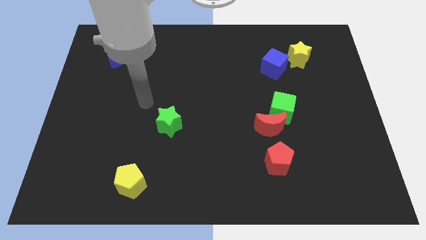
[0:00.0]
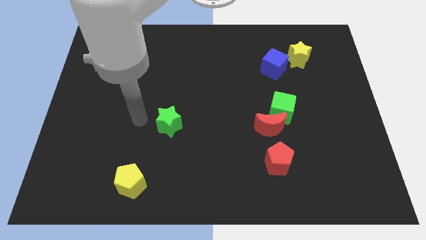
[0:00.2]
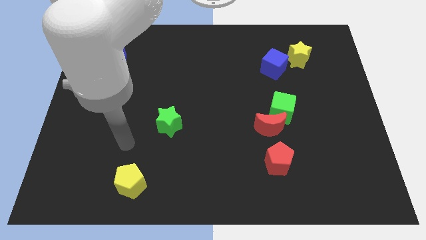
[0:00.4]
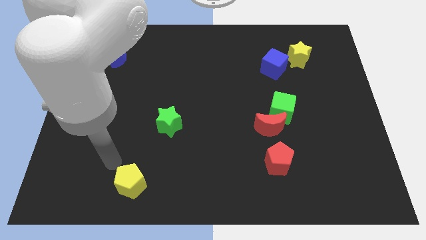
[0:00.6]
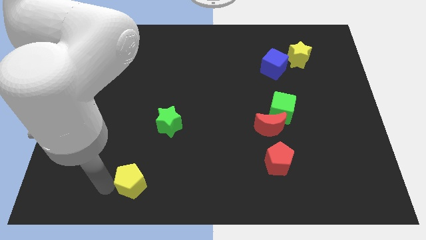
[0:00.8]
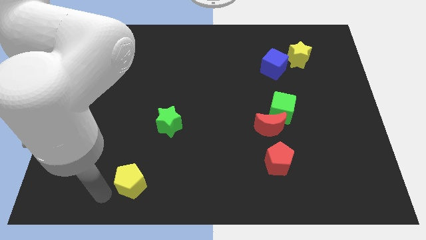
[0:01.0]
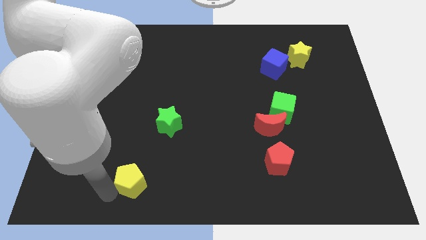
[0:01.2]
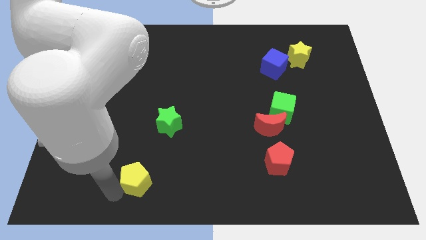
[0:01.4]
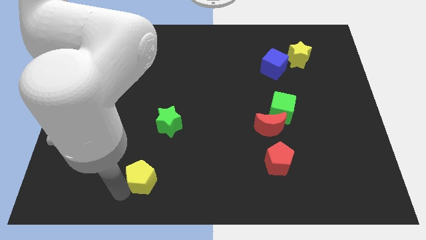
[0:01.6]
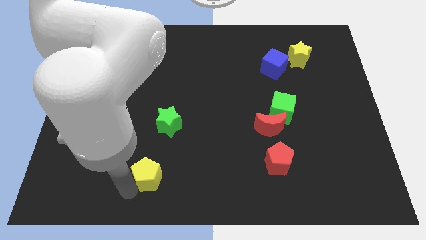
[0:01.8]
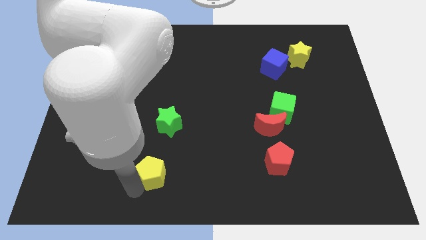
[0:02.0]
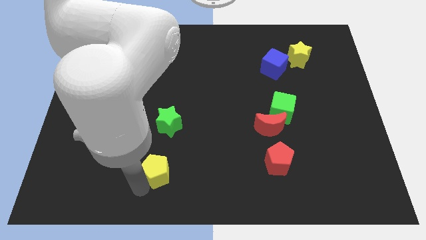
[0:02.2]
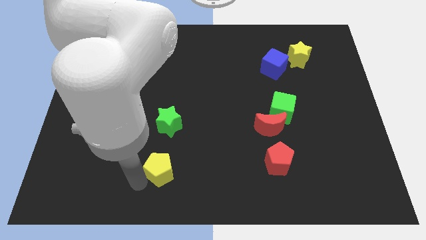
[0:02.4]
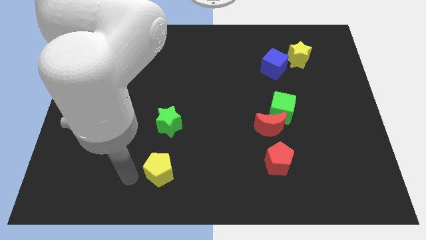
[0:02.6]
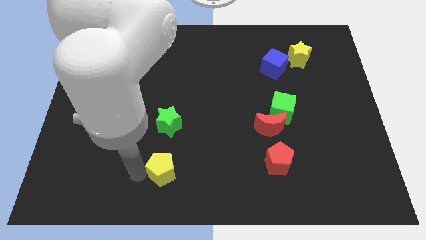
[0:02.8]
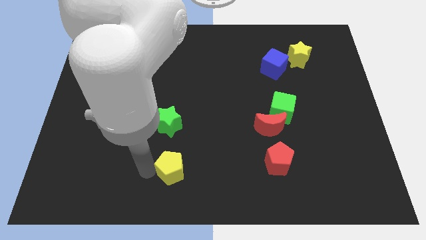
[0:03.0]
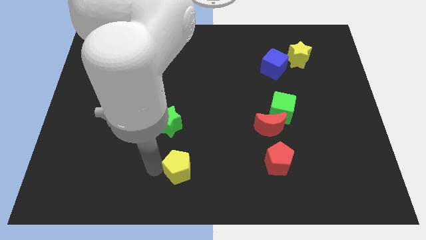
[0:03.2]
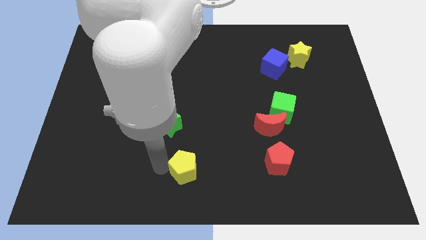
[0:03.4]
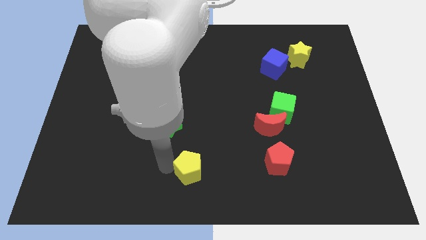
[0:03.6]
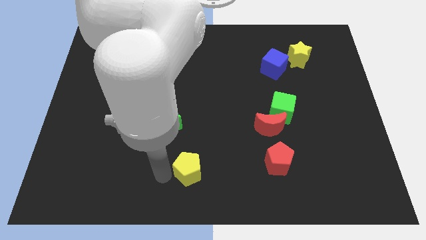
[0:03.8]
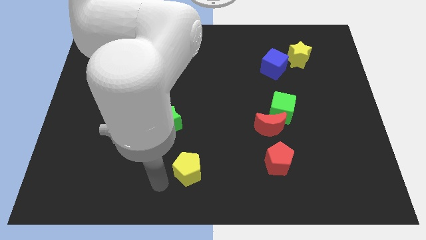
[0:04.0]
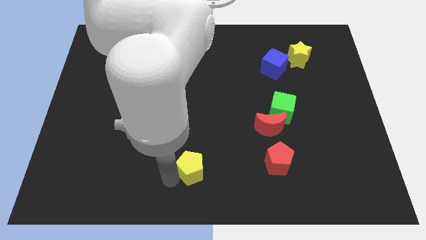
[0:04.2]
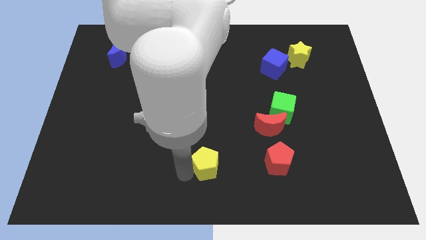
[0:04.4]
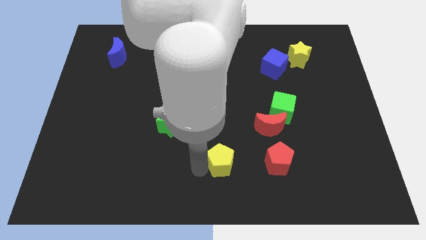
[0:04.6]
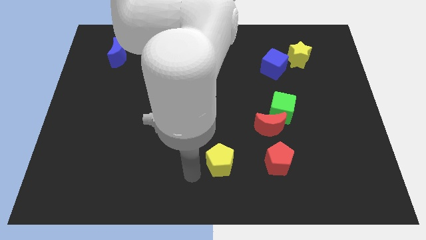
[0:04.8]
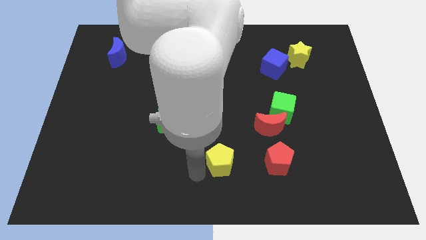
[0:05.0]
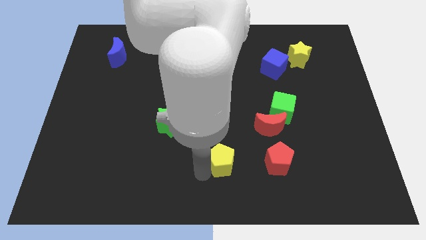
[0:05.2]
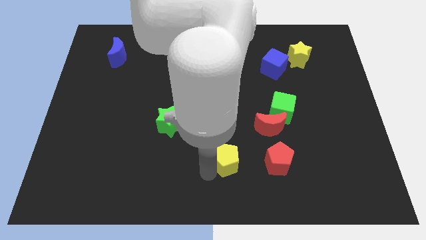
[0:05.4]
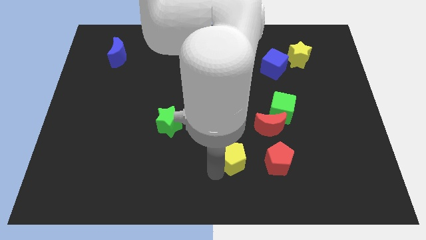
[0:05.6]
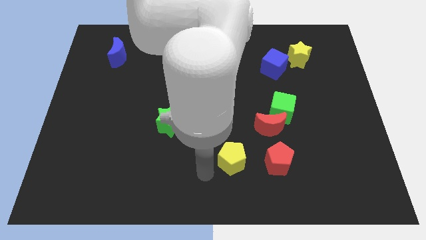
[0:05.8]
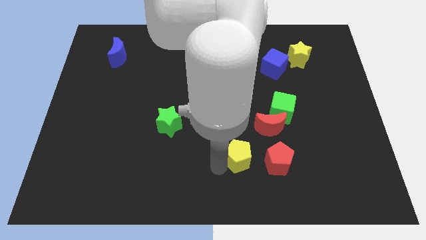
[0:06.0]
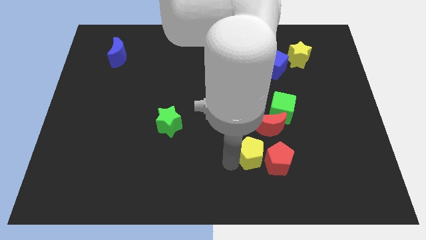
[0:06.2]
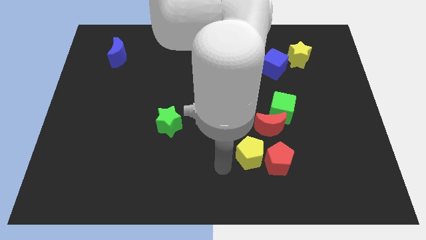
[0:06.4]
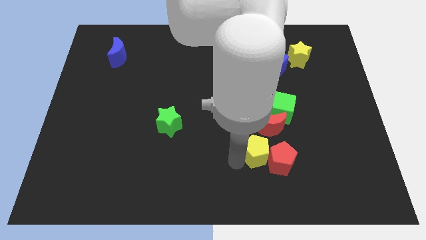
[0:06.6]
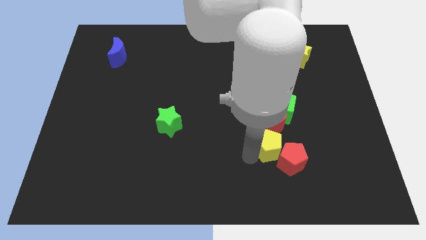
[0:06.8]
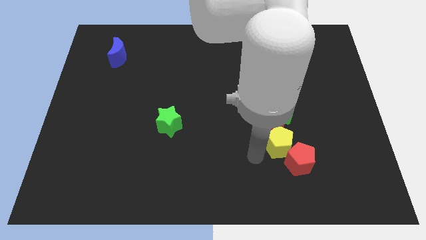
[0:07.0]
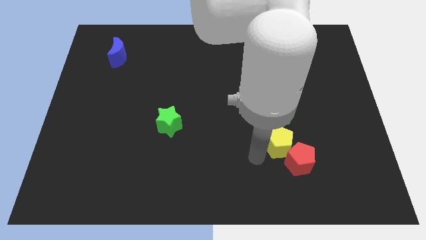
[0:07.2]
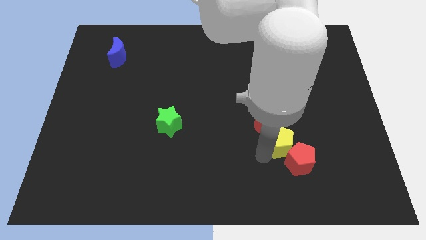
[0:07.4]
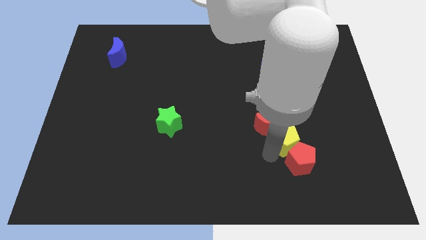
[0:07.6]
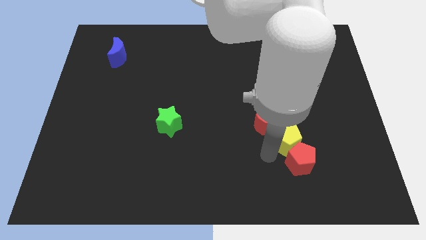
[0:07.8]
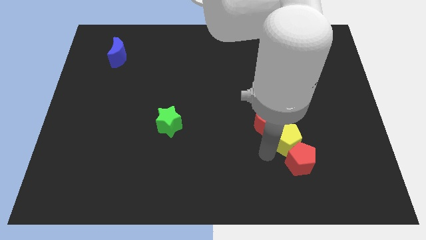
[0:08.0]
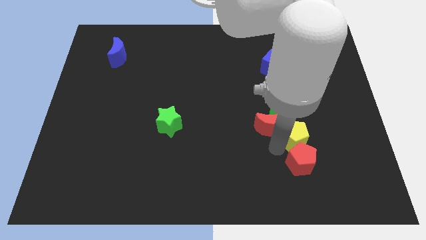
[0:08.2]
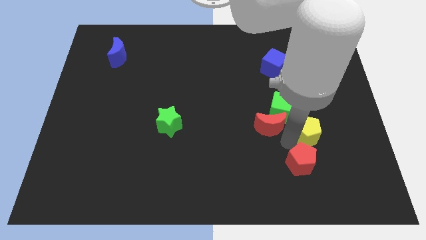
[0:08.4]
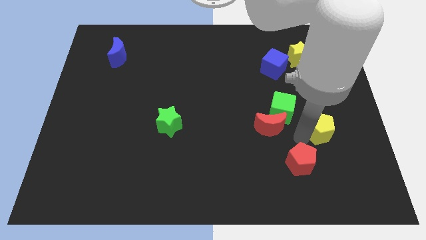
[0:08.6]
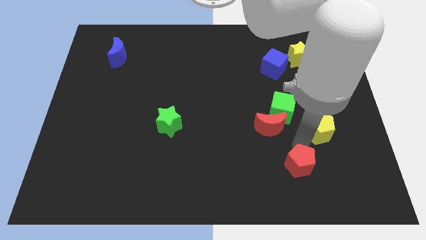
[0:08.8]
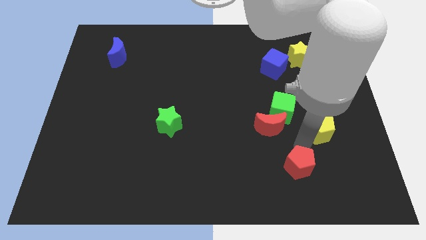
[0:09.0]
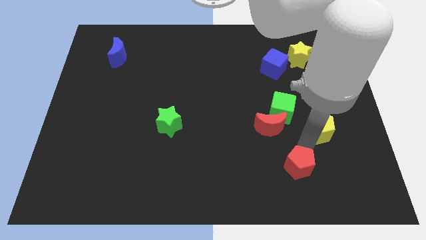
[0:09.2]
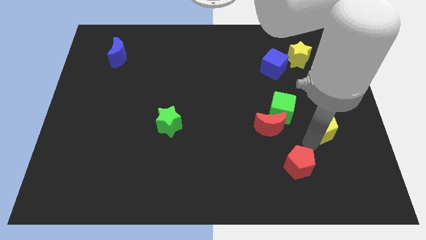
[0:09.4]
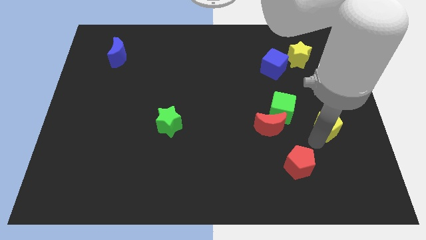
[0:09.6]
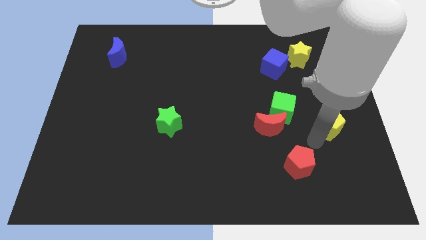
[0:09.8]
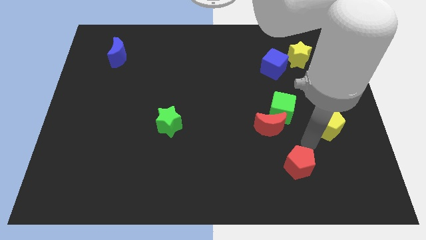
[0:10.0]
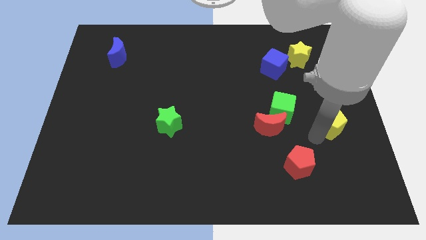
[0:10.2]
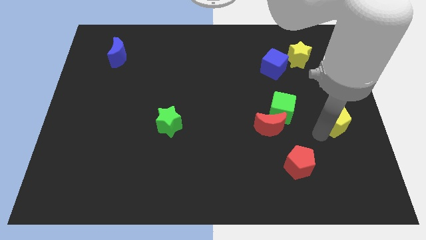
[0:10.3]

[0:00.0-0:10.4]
move the yellow pentagon to the center right

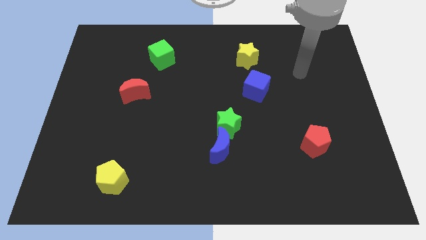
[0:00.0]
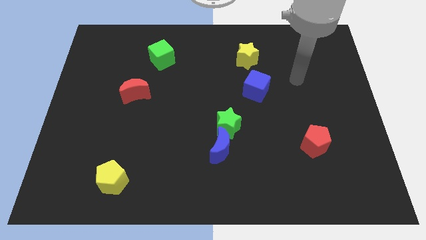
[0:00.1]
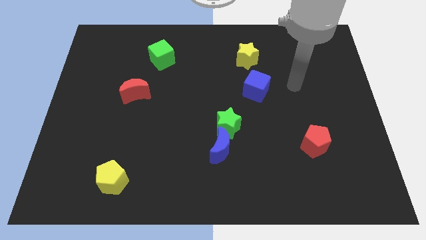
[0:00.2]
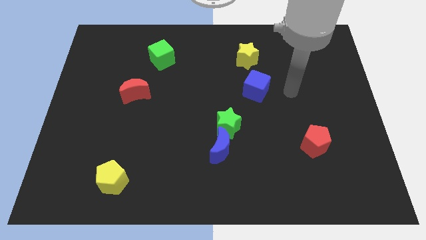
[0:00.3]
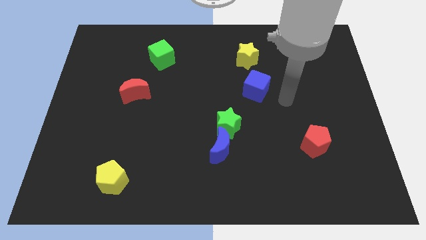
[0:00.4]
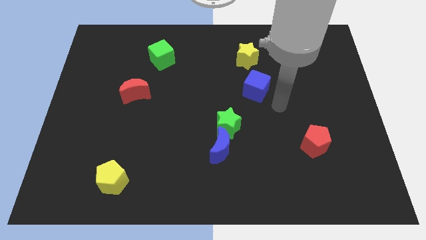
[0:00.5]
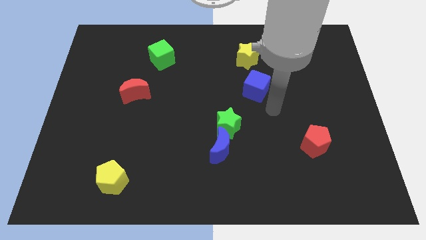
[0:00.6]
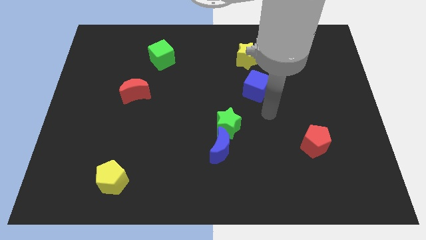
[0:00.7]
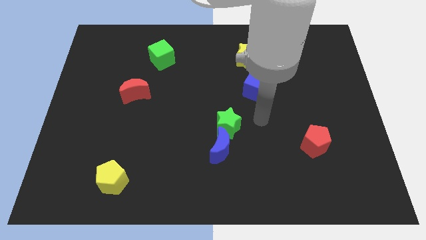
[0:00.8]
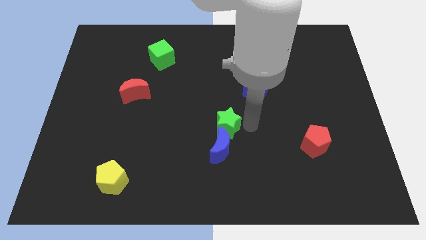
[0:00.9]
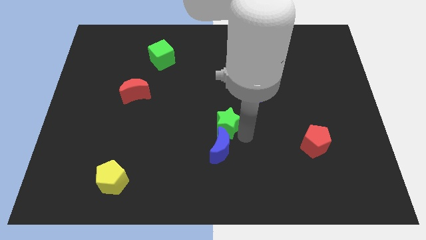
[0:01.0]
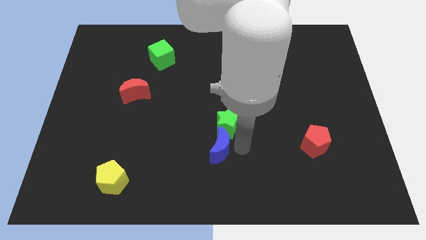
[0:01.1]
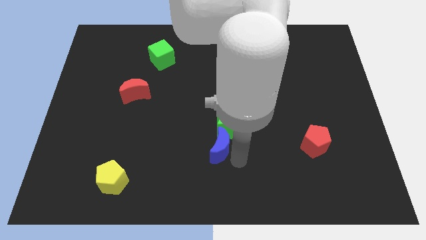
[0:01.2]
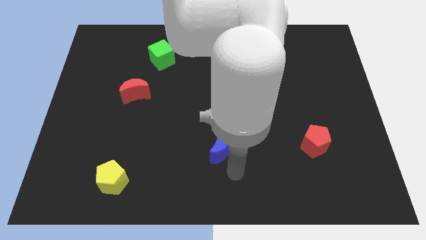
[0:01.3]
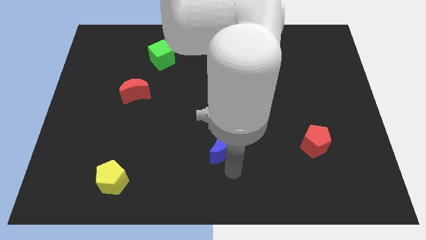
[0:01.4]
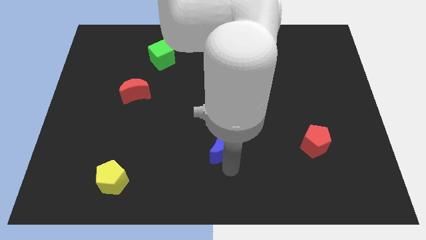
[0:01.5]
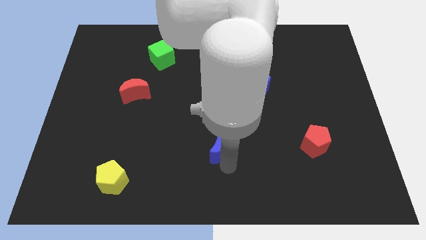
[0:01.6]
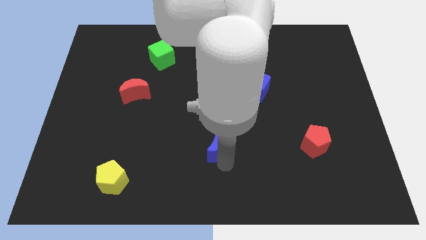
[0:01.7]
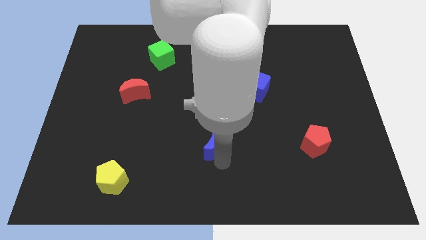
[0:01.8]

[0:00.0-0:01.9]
slide the blue moon to the middle

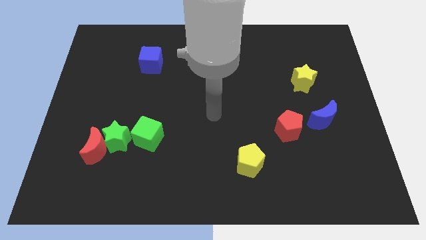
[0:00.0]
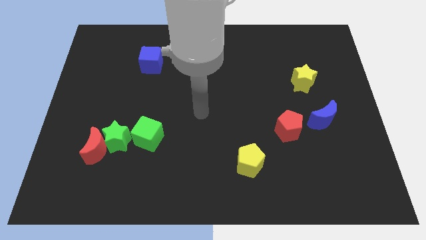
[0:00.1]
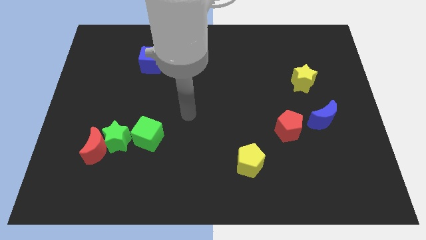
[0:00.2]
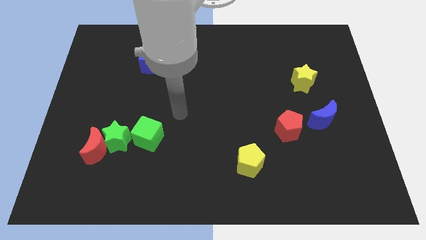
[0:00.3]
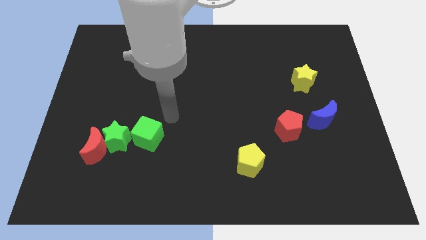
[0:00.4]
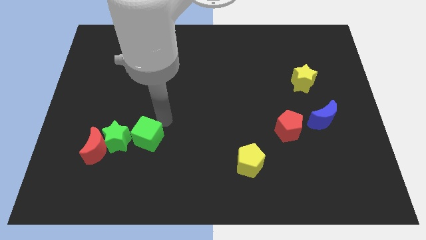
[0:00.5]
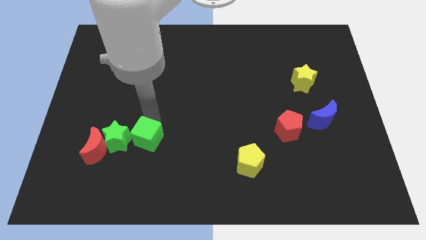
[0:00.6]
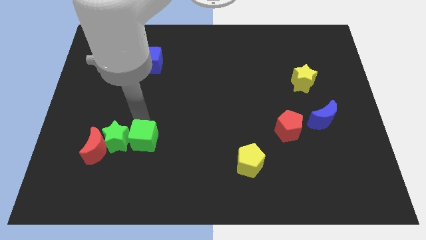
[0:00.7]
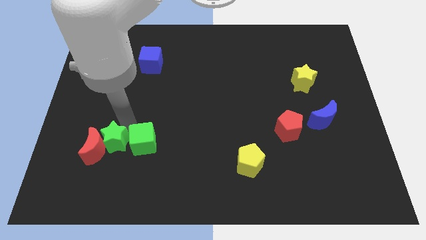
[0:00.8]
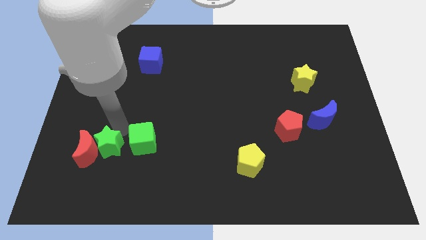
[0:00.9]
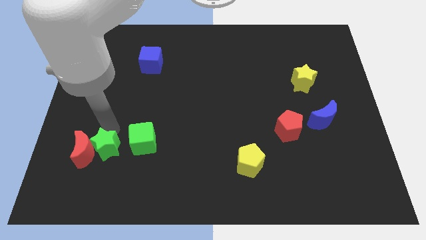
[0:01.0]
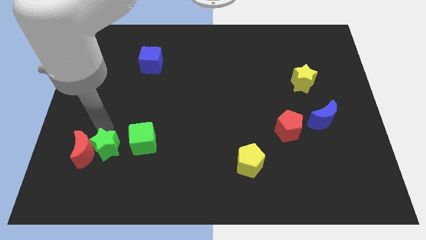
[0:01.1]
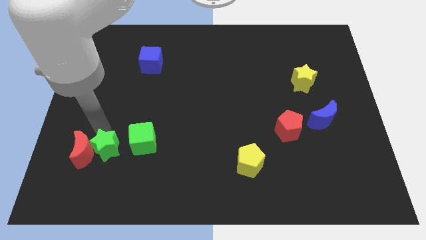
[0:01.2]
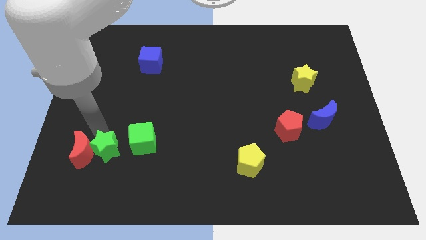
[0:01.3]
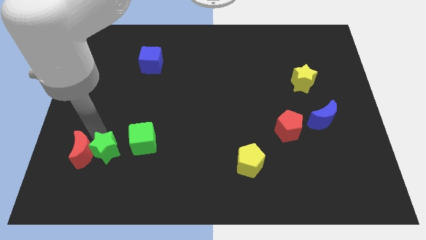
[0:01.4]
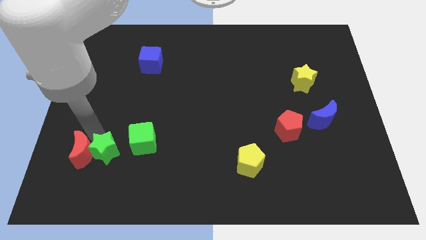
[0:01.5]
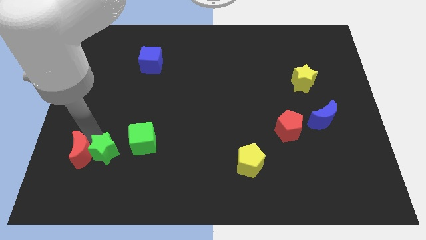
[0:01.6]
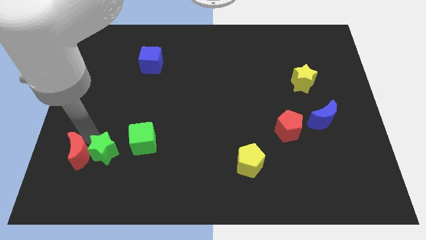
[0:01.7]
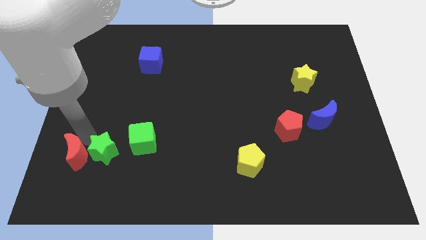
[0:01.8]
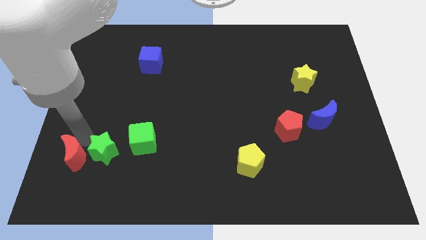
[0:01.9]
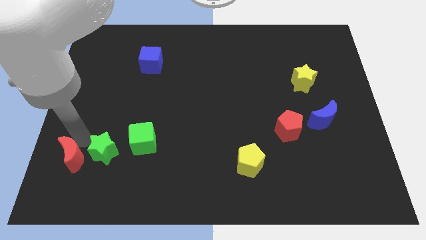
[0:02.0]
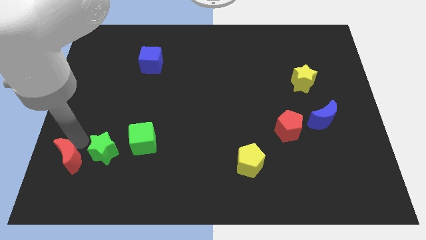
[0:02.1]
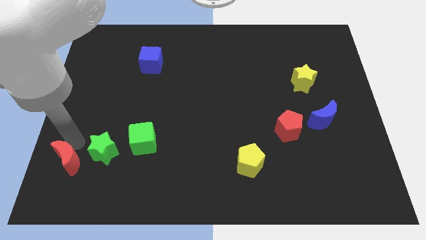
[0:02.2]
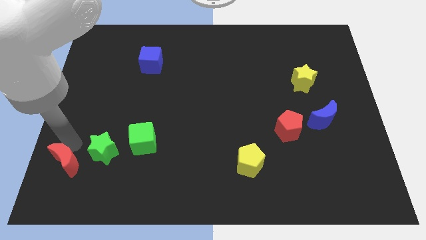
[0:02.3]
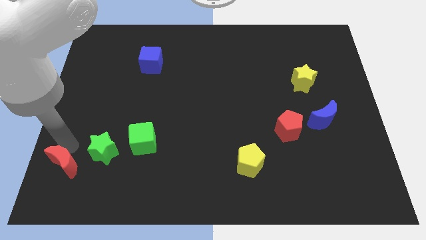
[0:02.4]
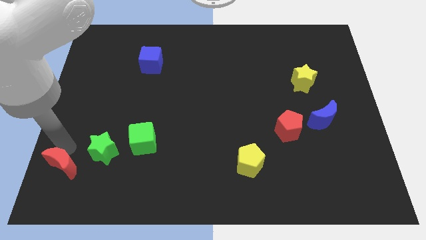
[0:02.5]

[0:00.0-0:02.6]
move the red moon to the bottom left
